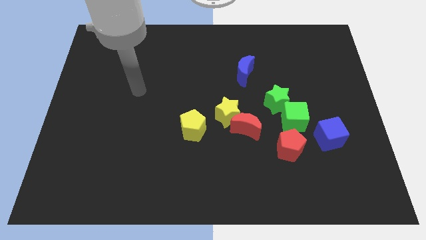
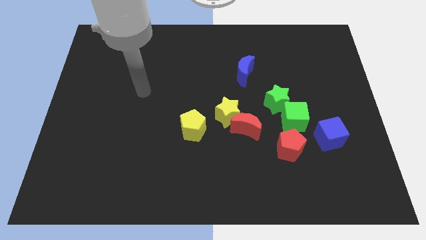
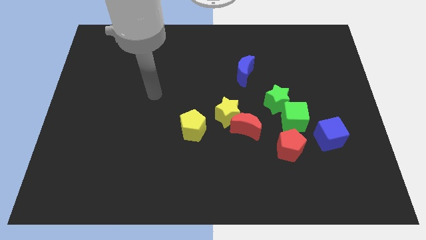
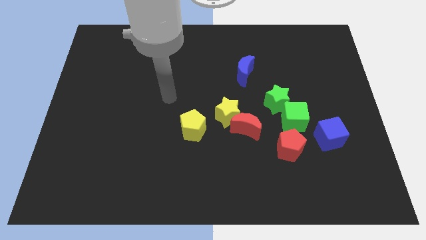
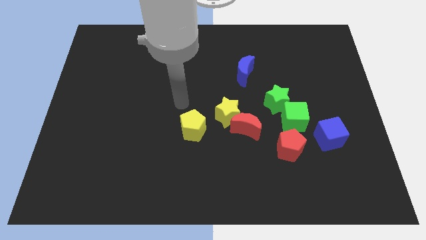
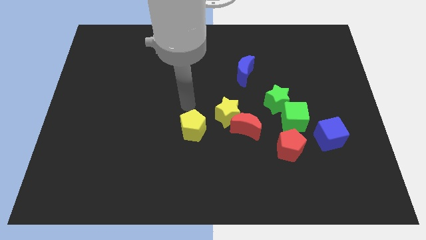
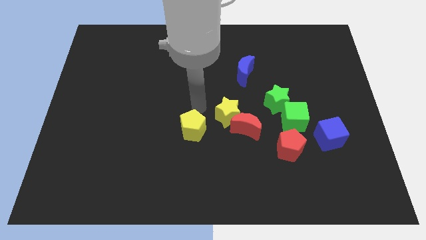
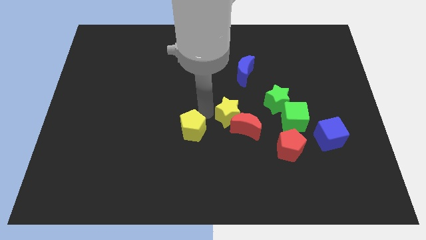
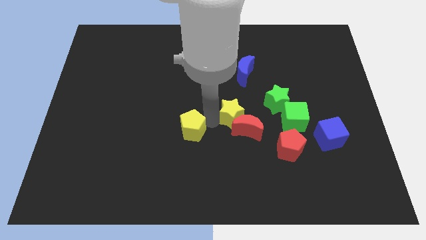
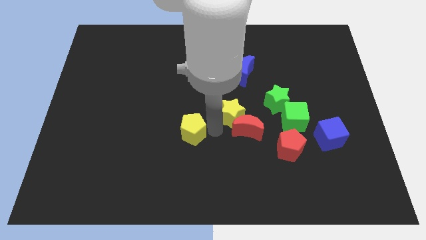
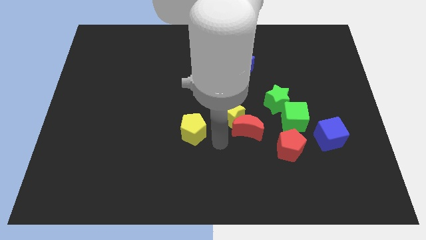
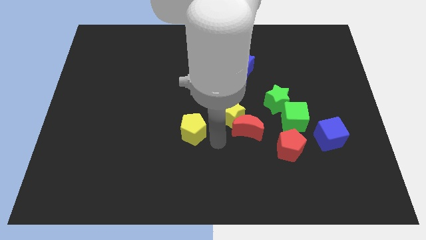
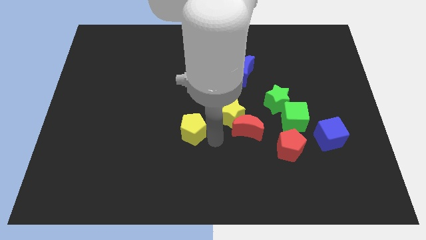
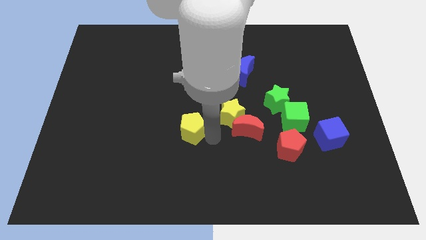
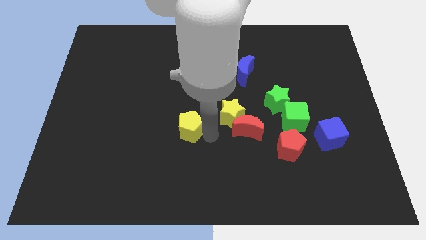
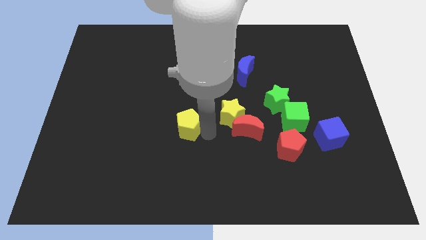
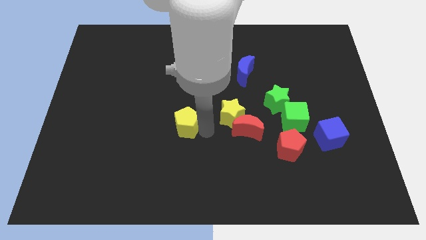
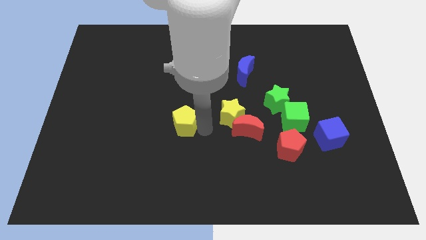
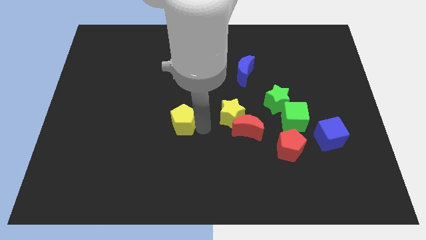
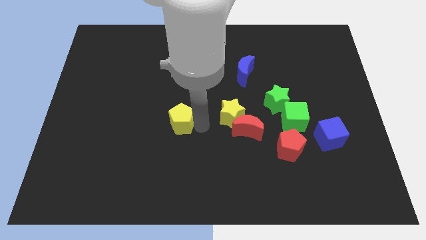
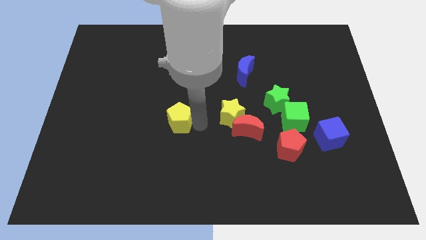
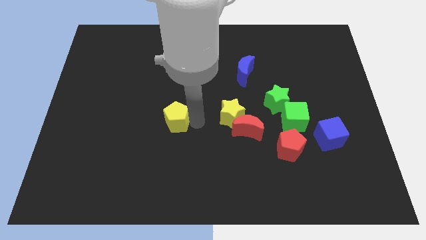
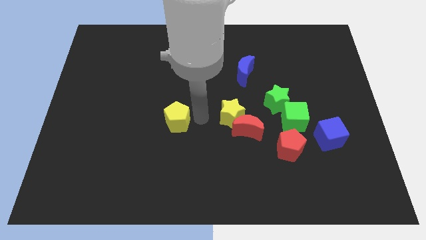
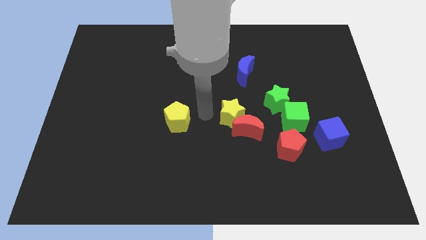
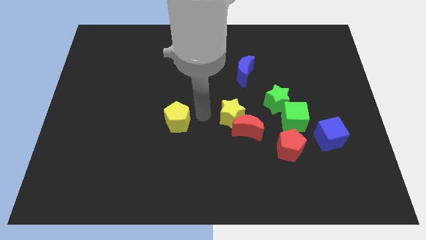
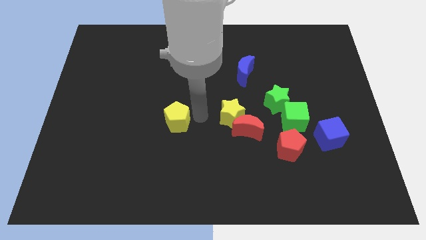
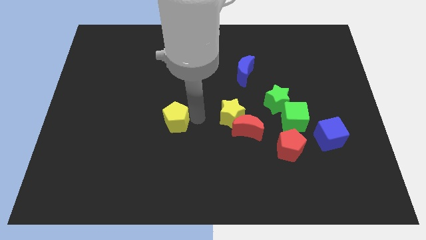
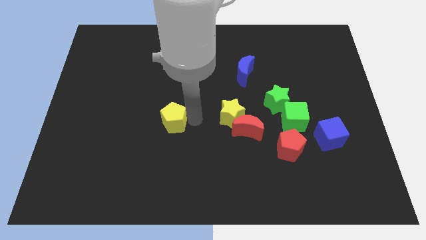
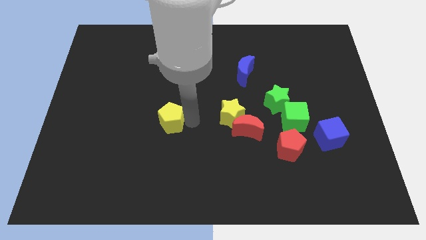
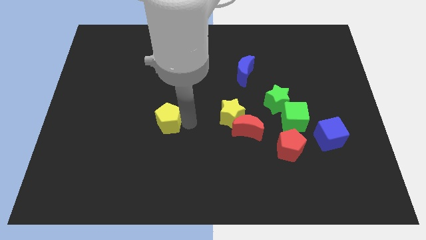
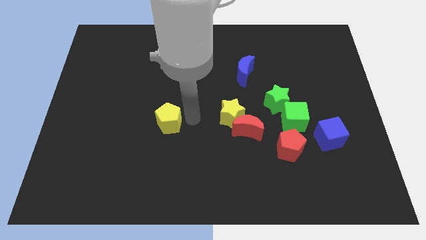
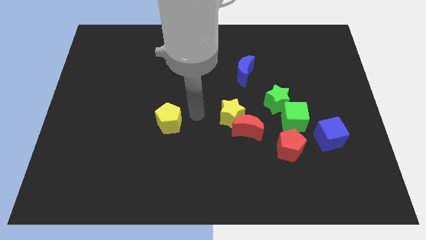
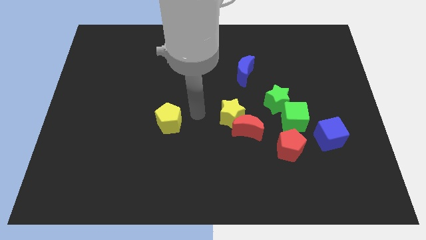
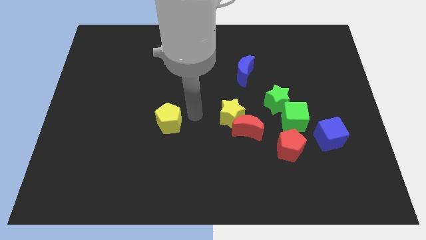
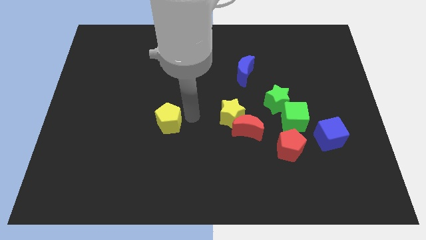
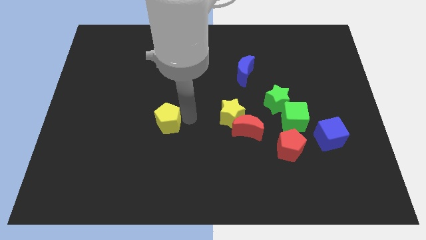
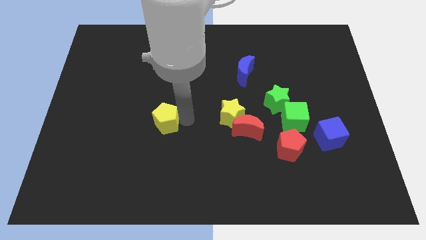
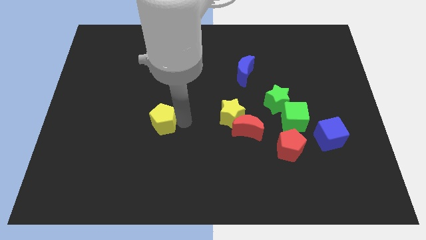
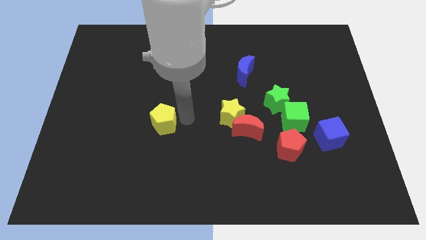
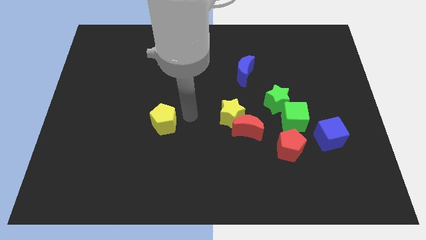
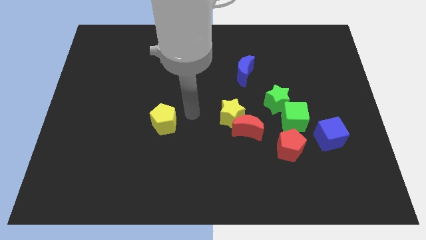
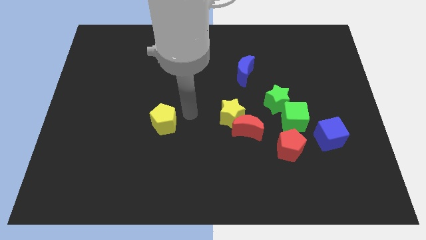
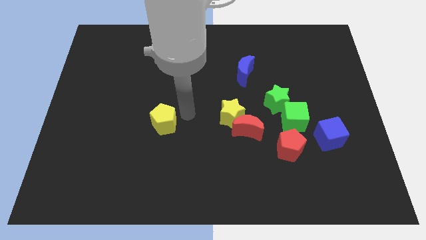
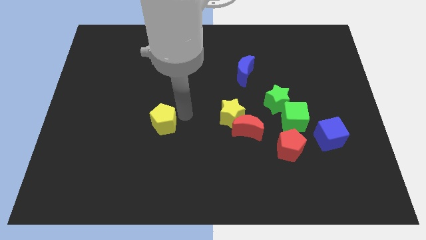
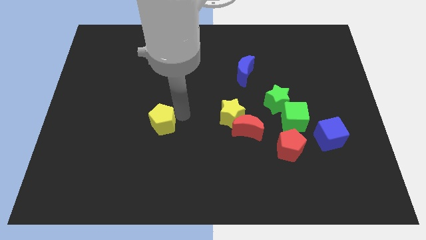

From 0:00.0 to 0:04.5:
push the yellow pentagon to the left a little

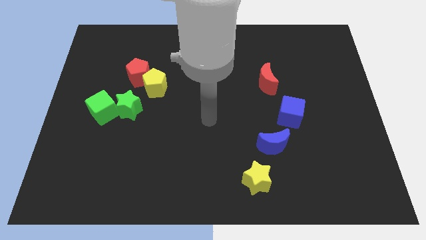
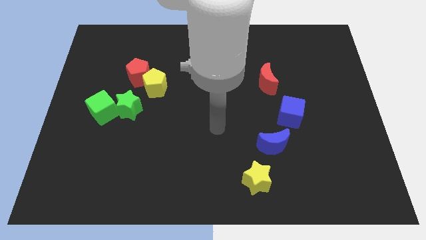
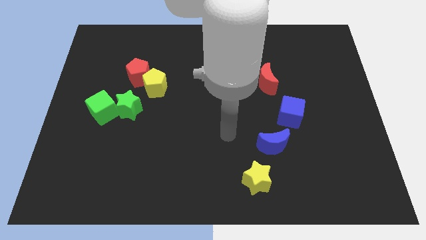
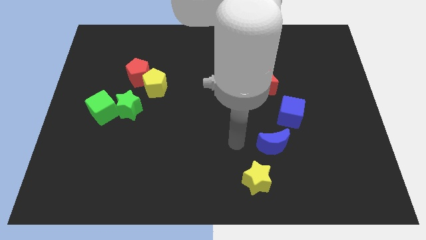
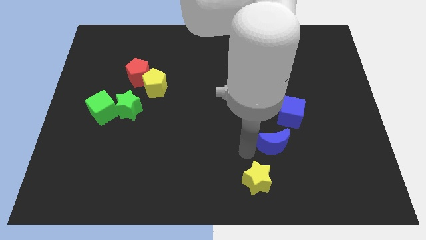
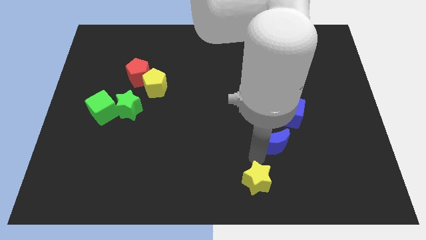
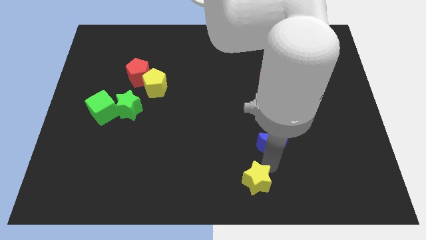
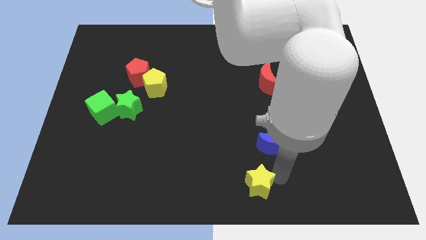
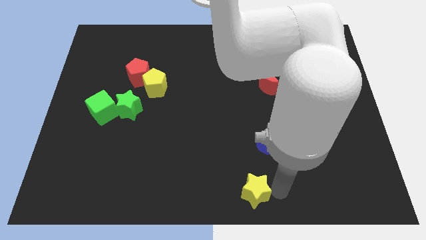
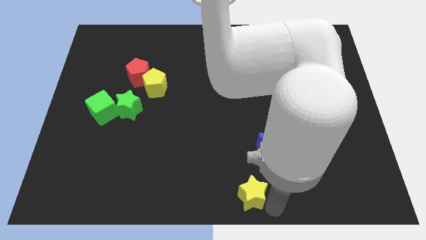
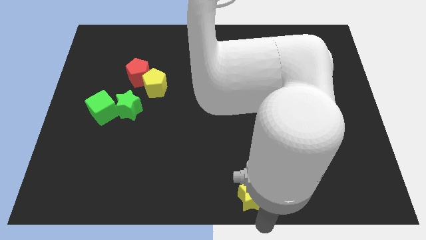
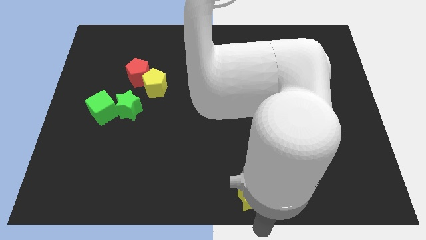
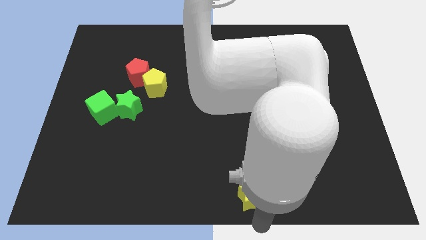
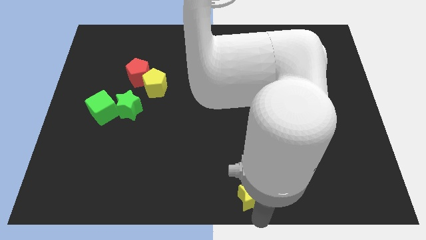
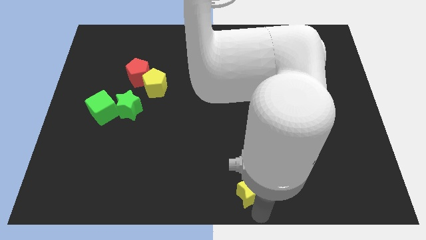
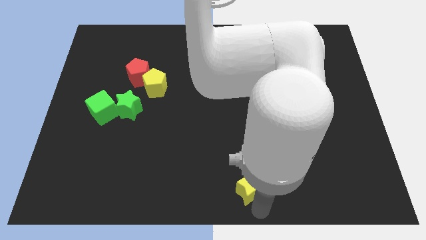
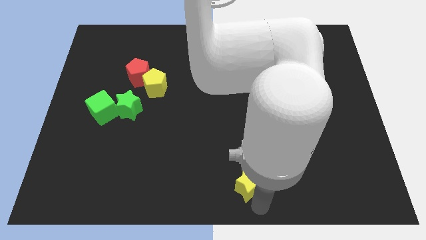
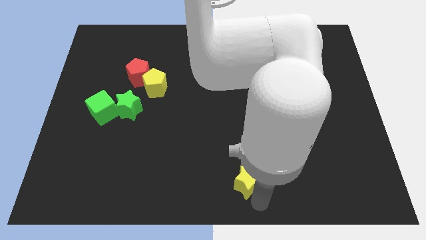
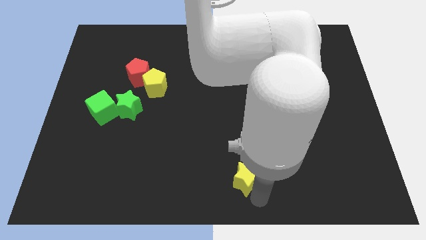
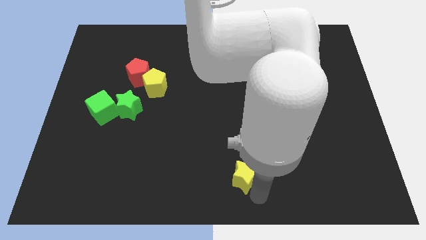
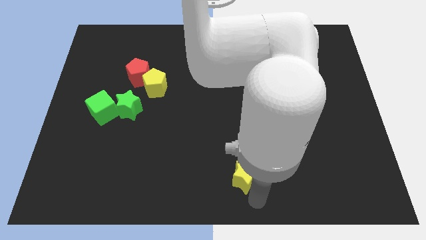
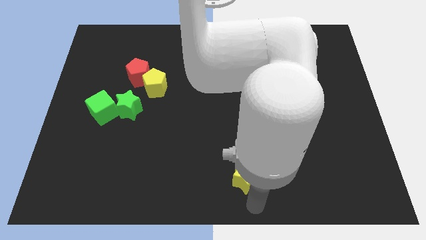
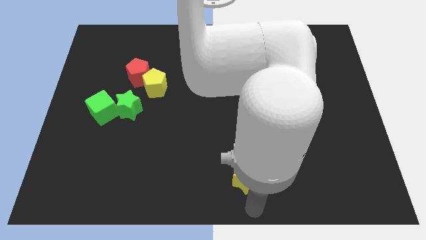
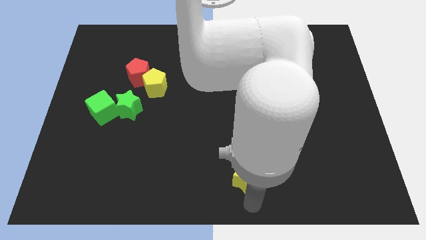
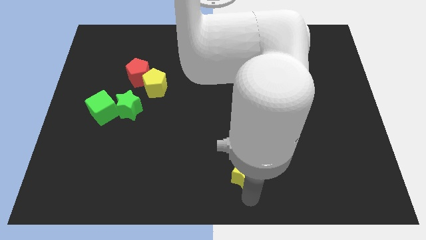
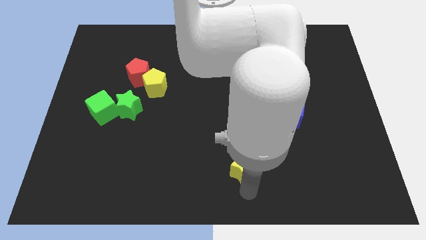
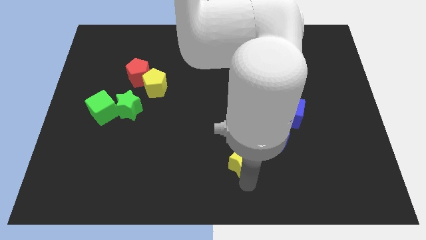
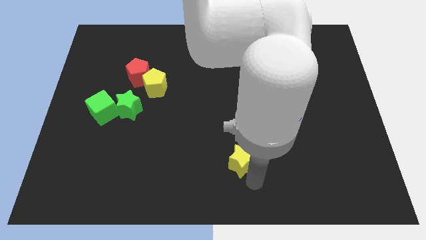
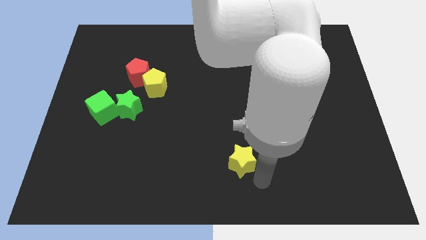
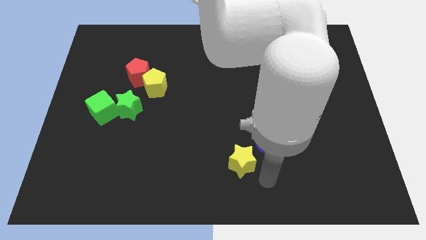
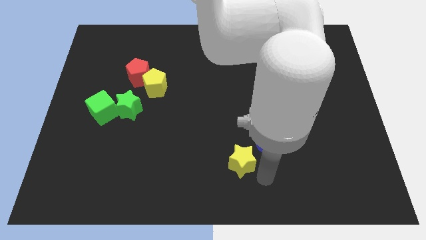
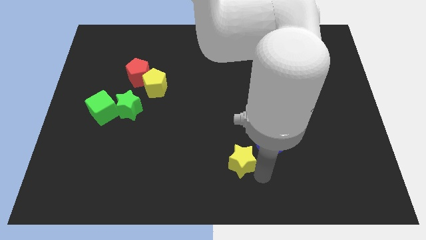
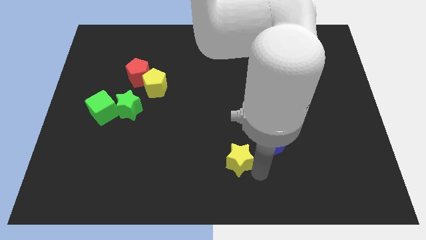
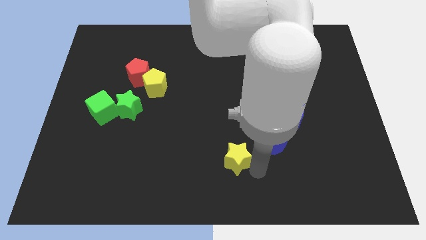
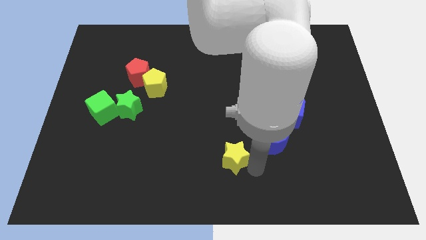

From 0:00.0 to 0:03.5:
slightly push the yellow star diagonally upwards and to the left
